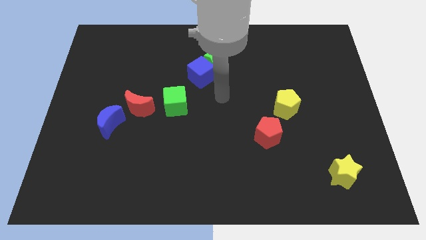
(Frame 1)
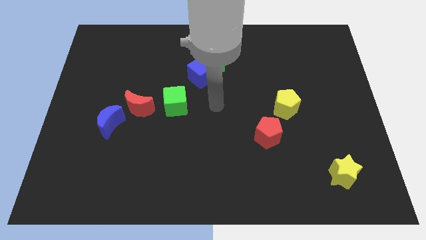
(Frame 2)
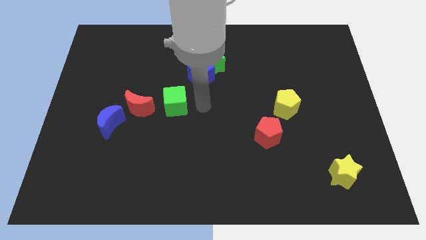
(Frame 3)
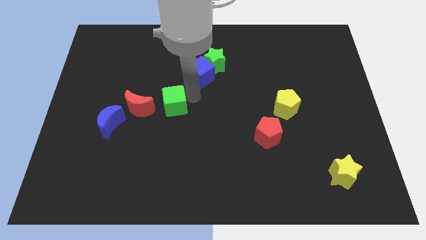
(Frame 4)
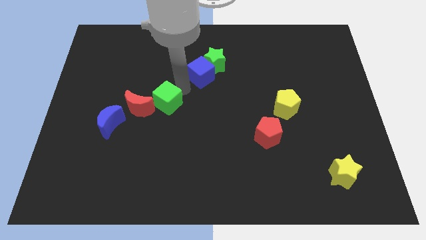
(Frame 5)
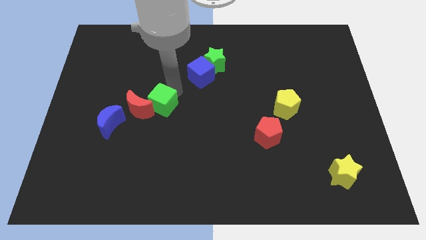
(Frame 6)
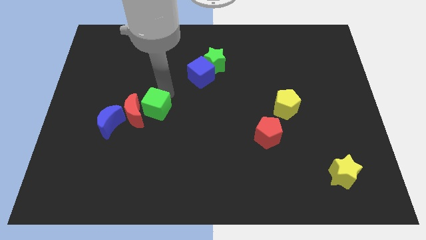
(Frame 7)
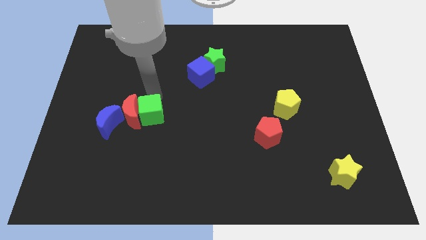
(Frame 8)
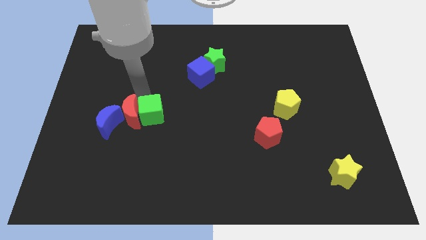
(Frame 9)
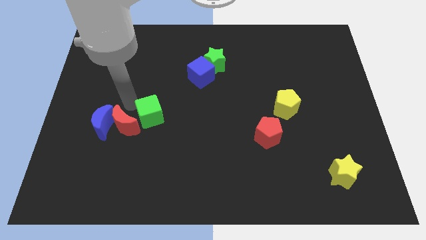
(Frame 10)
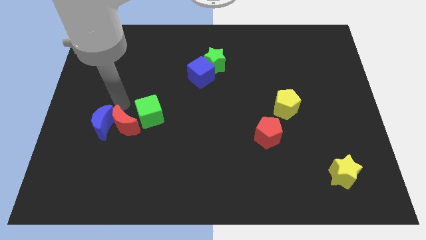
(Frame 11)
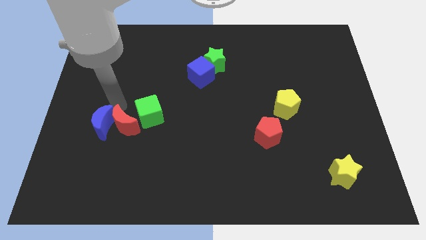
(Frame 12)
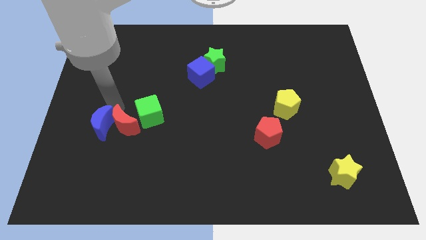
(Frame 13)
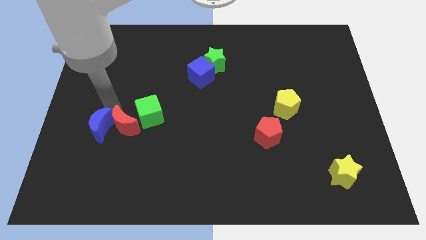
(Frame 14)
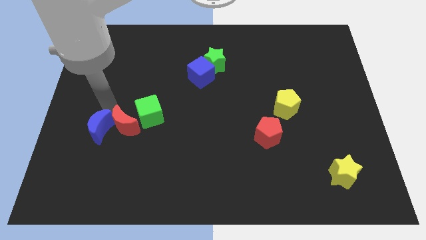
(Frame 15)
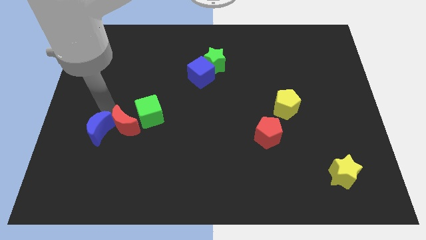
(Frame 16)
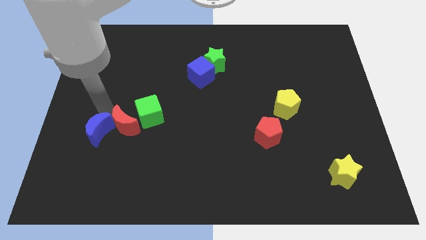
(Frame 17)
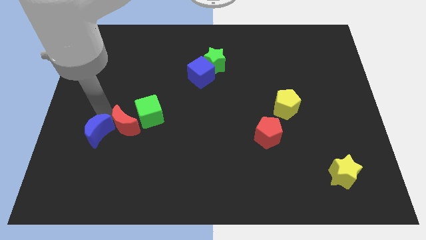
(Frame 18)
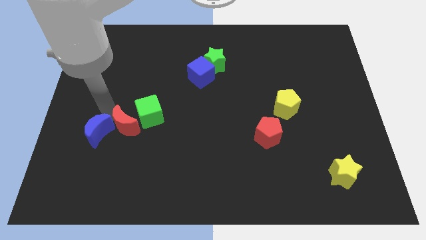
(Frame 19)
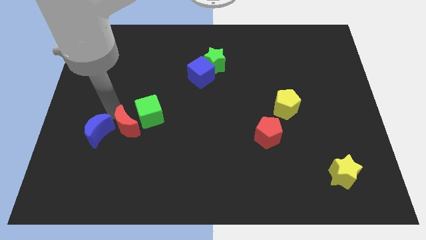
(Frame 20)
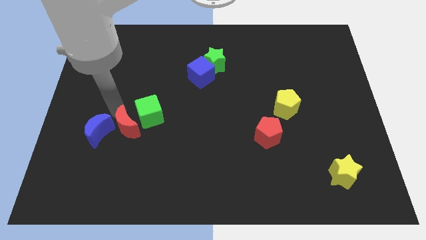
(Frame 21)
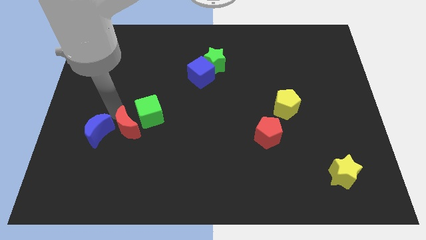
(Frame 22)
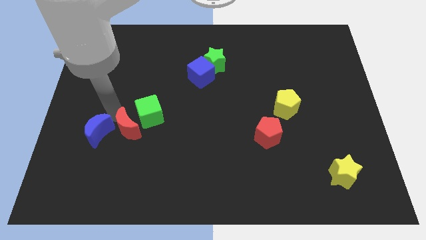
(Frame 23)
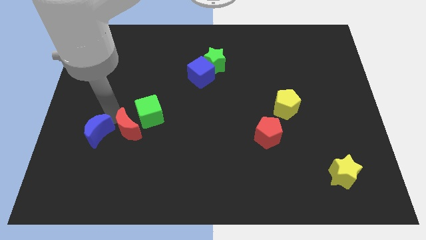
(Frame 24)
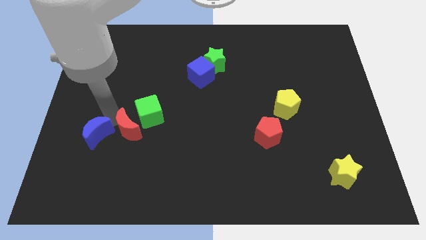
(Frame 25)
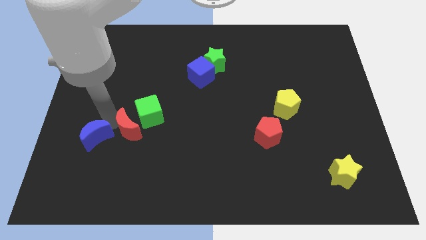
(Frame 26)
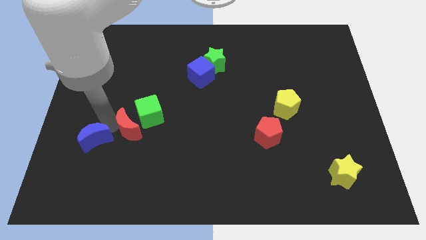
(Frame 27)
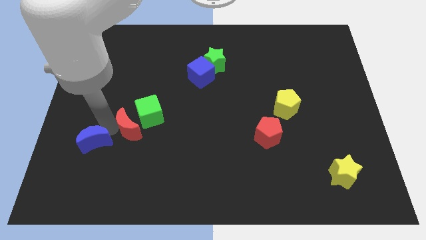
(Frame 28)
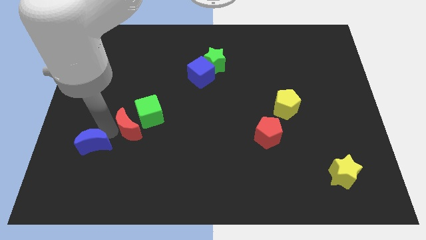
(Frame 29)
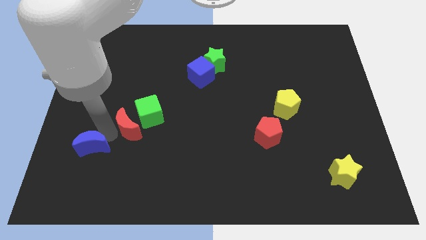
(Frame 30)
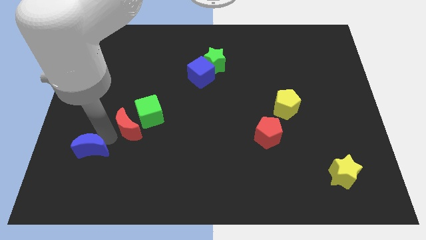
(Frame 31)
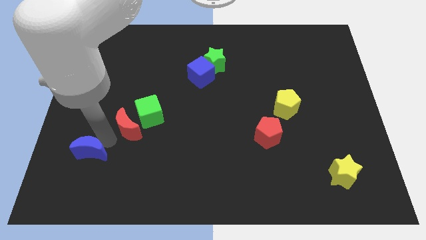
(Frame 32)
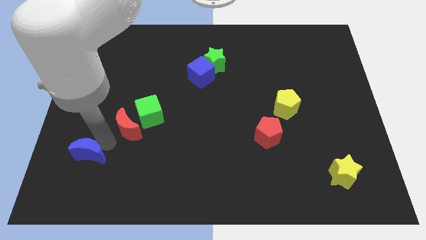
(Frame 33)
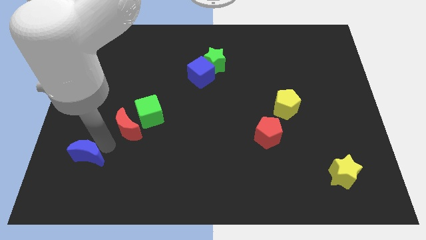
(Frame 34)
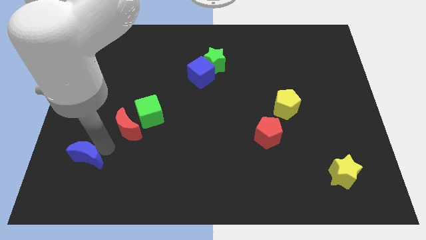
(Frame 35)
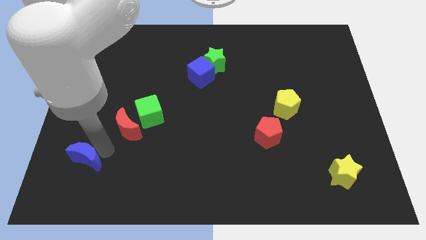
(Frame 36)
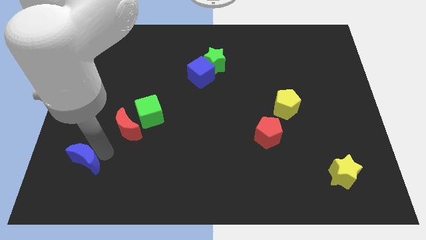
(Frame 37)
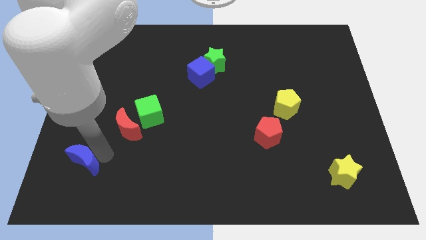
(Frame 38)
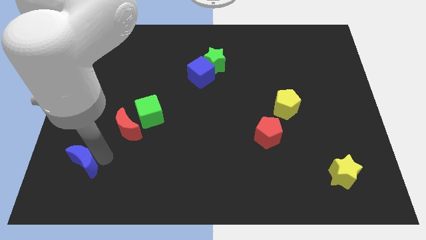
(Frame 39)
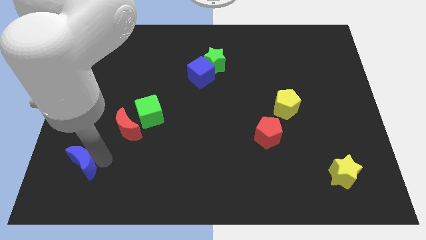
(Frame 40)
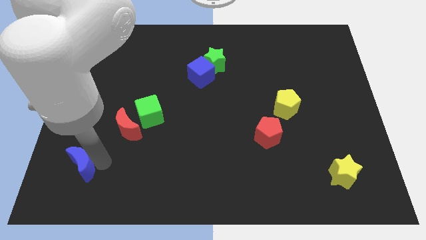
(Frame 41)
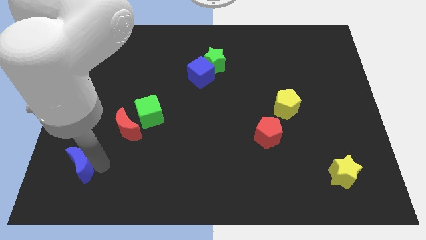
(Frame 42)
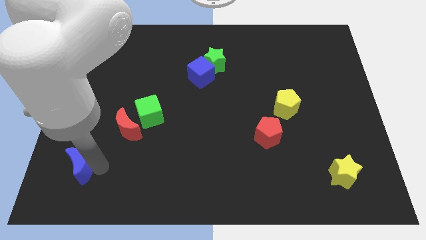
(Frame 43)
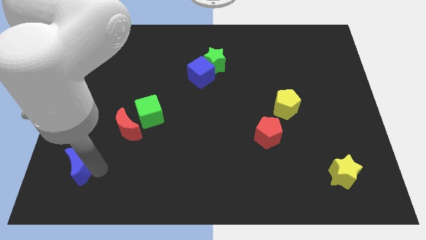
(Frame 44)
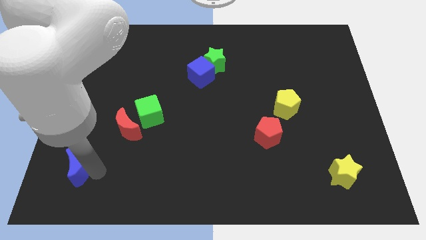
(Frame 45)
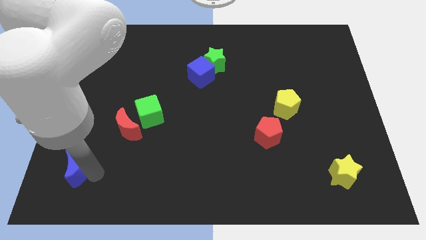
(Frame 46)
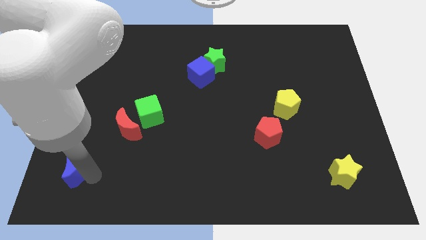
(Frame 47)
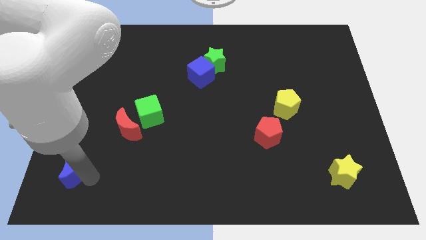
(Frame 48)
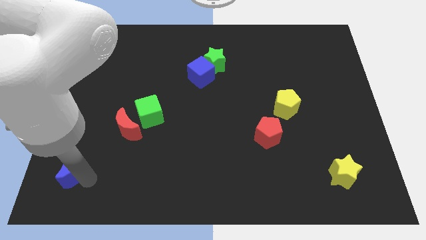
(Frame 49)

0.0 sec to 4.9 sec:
slide the blue moon to the bottom left corner
